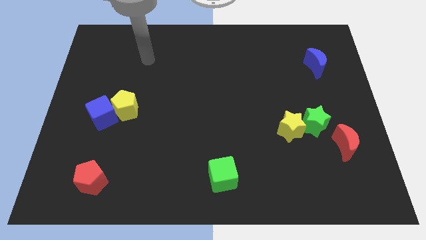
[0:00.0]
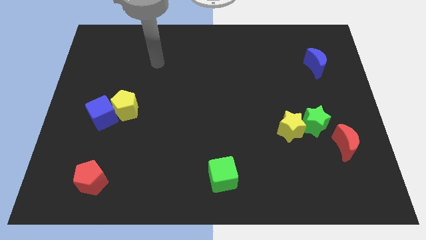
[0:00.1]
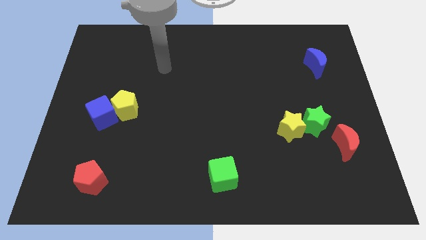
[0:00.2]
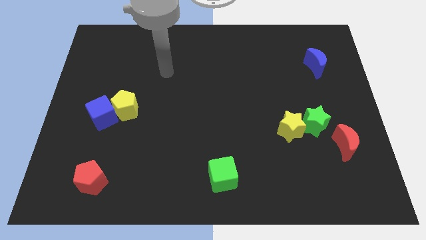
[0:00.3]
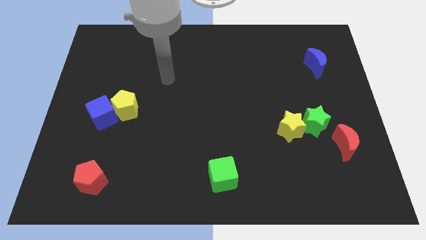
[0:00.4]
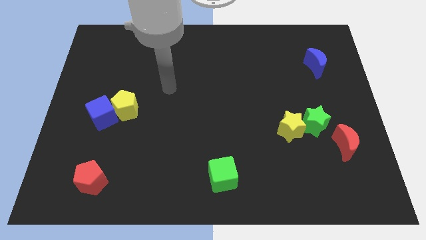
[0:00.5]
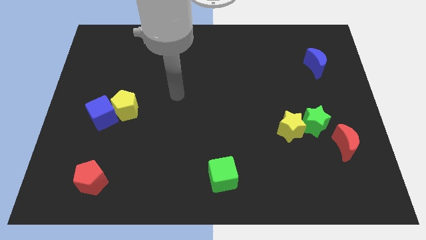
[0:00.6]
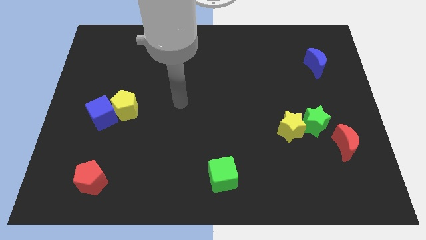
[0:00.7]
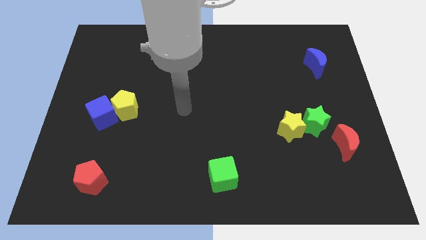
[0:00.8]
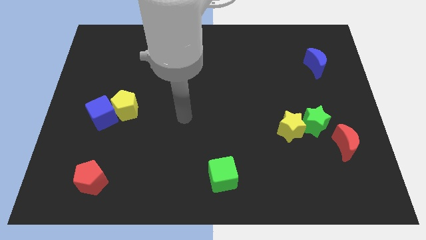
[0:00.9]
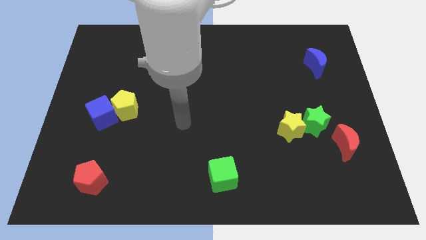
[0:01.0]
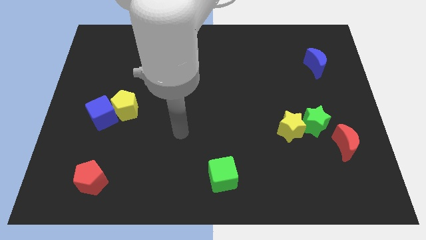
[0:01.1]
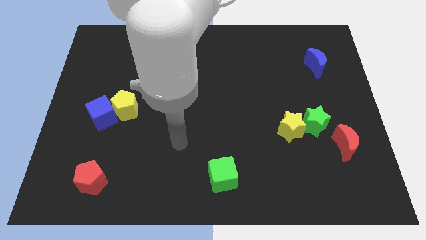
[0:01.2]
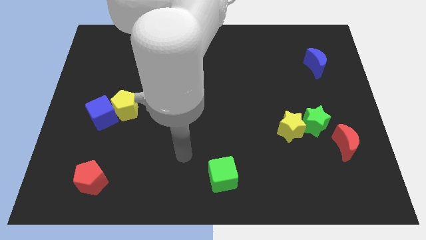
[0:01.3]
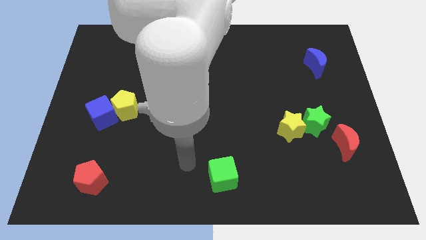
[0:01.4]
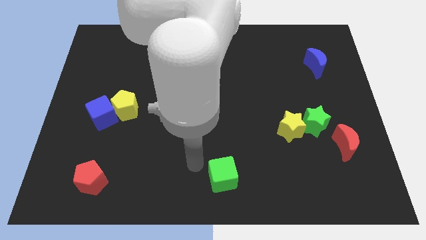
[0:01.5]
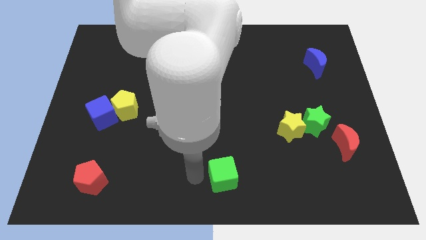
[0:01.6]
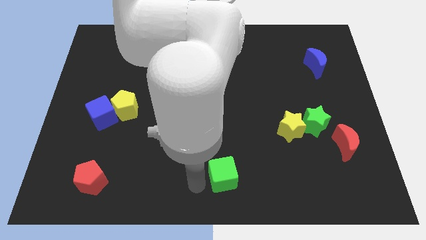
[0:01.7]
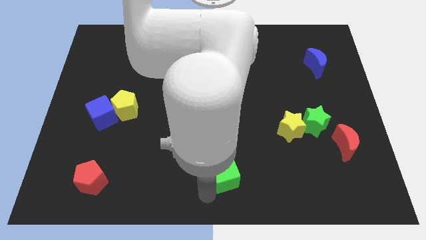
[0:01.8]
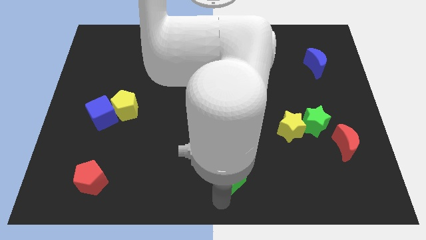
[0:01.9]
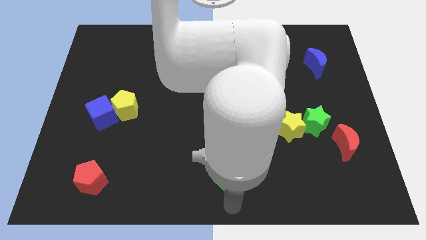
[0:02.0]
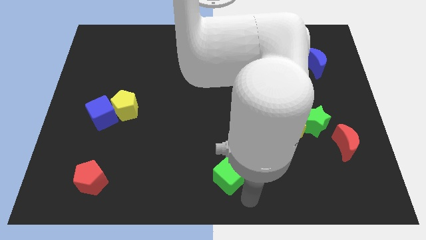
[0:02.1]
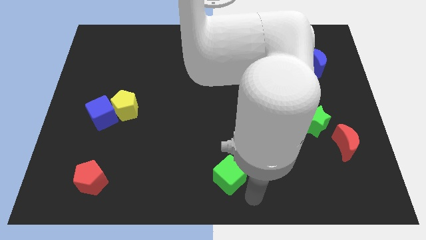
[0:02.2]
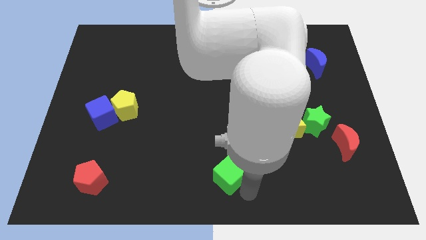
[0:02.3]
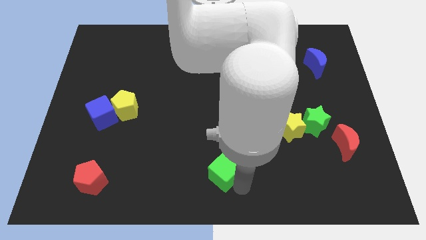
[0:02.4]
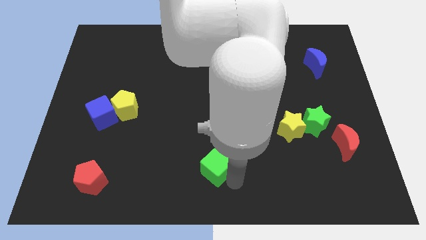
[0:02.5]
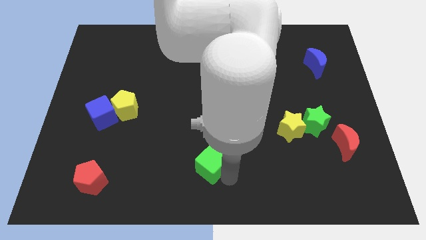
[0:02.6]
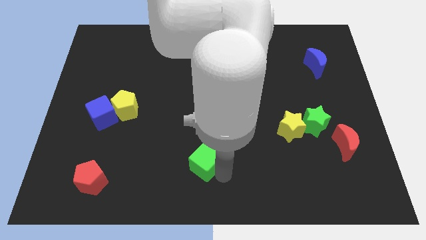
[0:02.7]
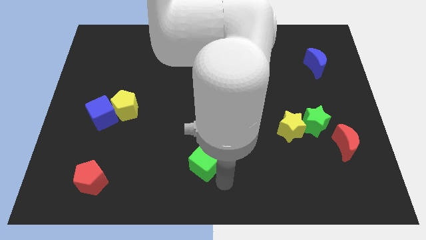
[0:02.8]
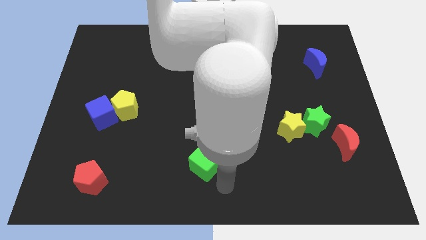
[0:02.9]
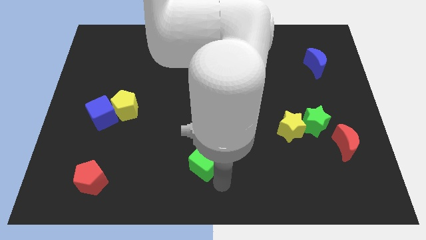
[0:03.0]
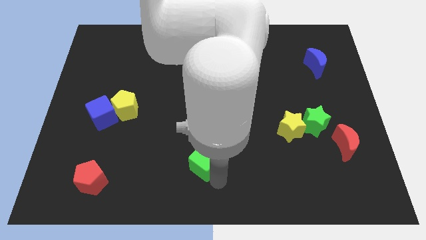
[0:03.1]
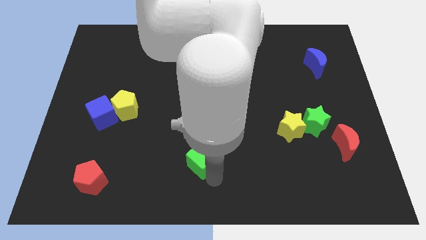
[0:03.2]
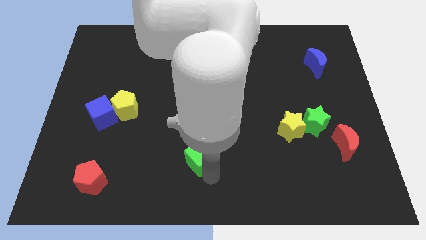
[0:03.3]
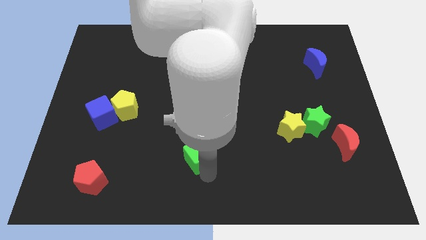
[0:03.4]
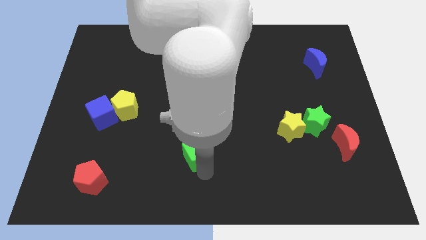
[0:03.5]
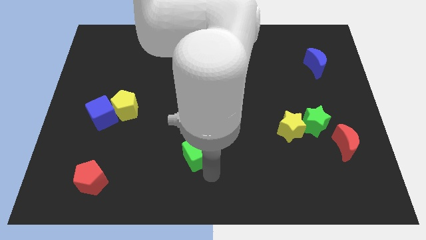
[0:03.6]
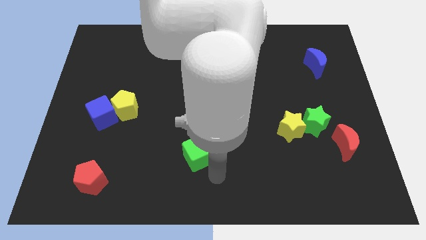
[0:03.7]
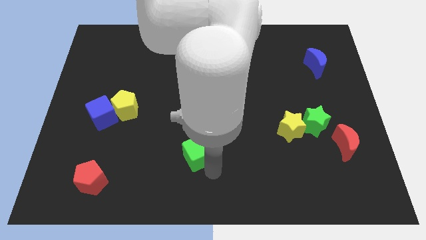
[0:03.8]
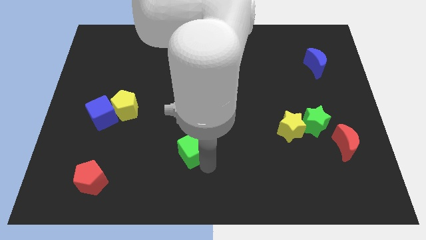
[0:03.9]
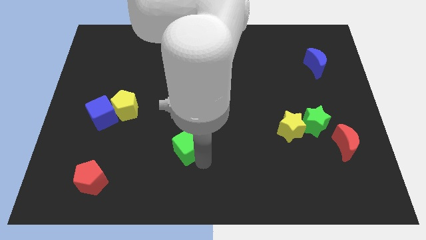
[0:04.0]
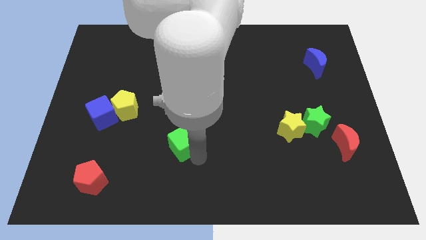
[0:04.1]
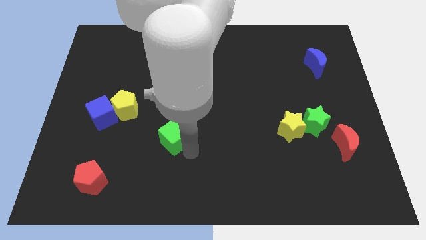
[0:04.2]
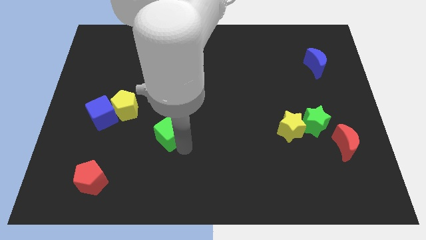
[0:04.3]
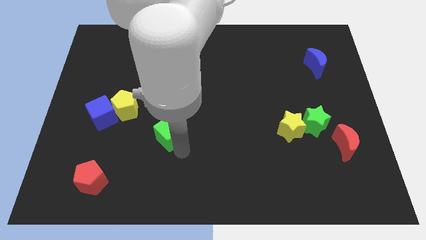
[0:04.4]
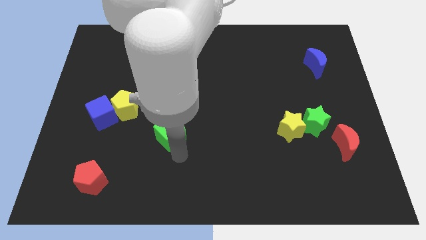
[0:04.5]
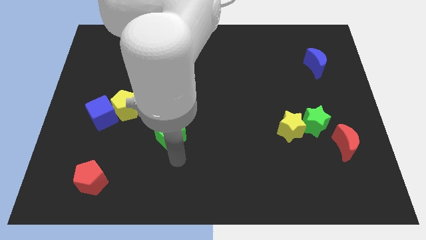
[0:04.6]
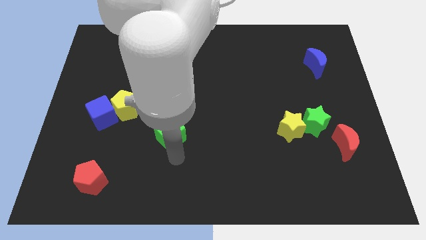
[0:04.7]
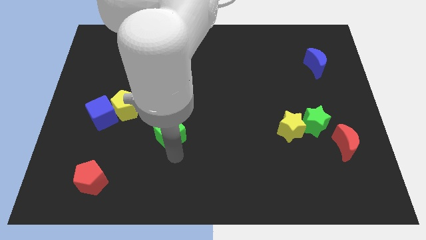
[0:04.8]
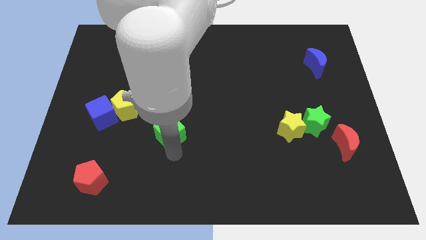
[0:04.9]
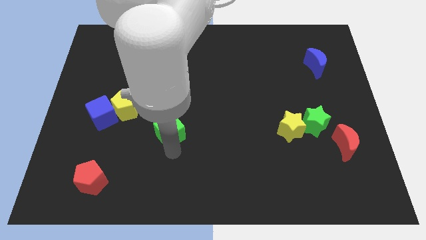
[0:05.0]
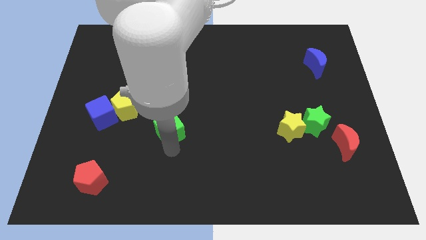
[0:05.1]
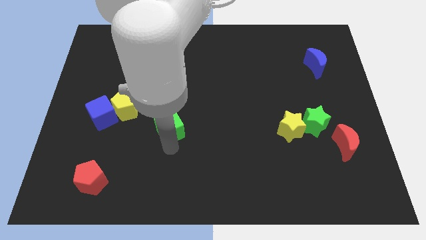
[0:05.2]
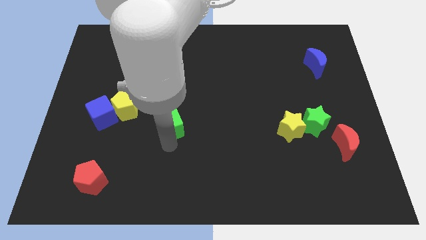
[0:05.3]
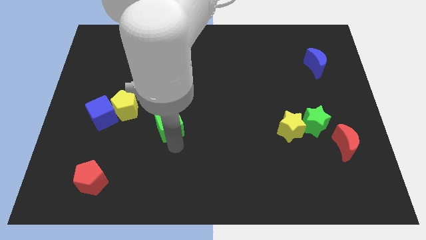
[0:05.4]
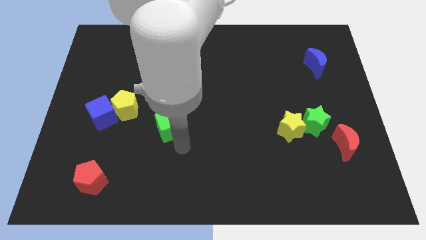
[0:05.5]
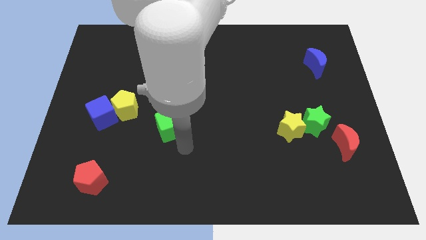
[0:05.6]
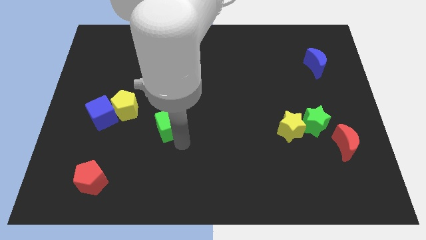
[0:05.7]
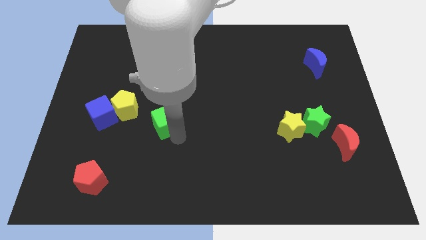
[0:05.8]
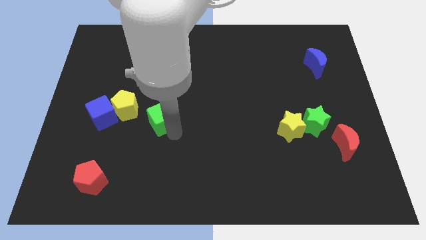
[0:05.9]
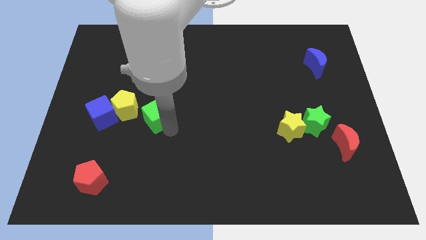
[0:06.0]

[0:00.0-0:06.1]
push the green cube upwards and then left

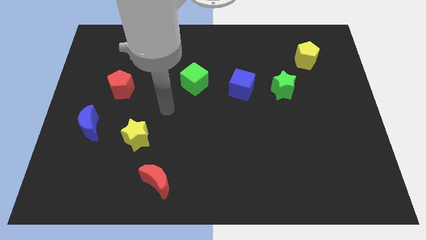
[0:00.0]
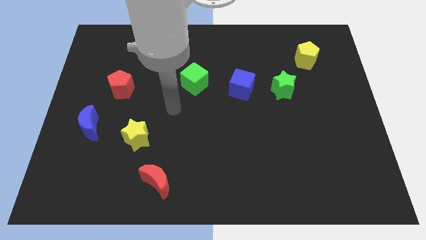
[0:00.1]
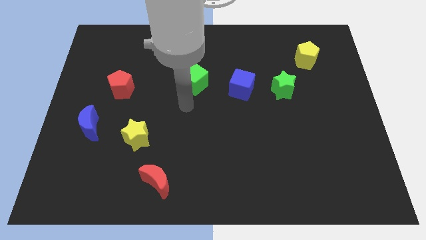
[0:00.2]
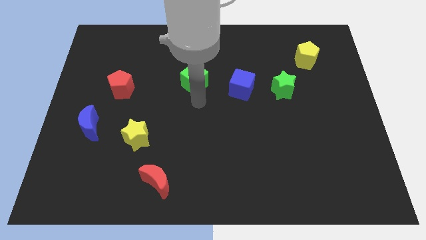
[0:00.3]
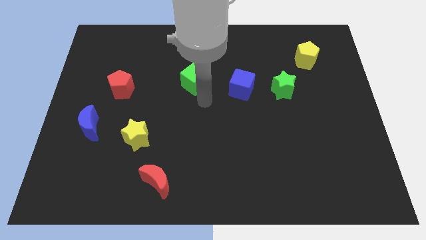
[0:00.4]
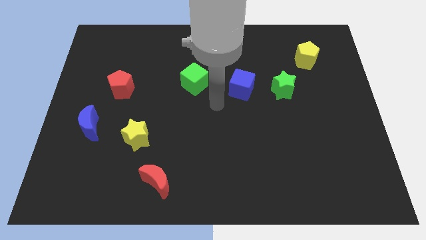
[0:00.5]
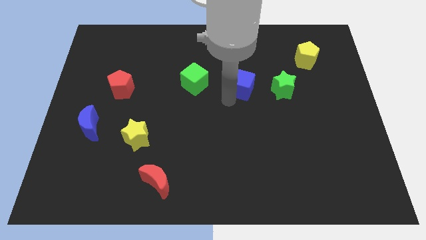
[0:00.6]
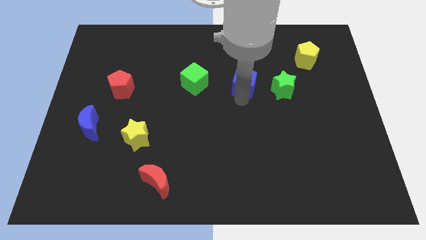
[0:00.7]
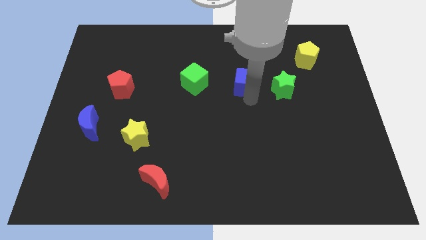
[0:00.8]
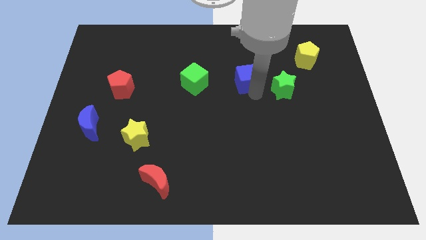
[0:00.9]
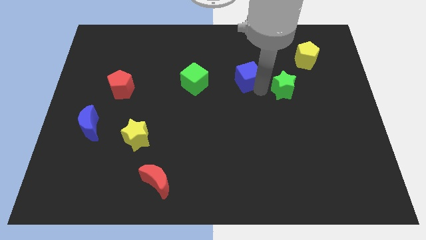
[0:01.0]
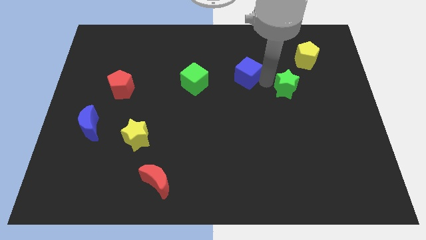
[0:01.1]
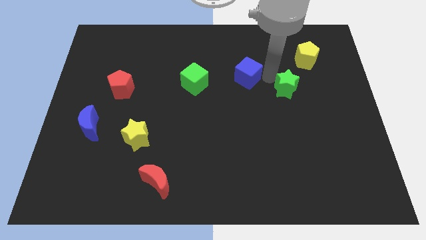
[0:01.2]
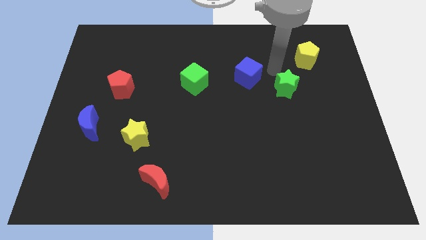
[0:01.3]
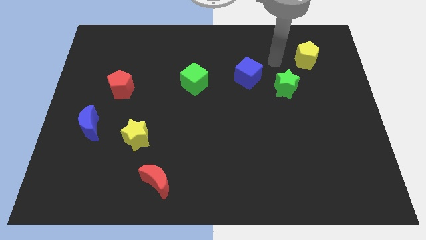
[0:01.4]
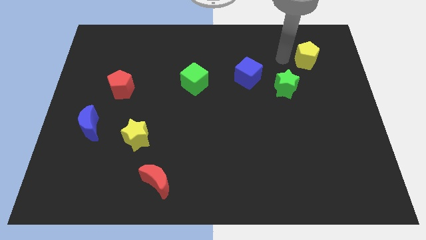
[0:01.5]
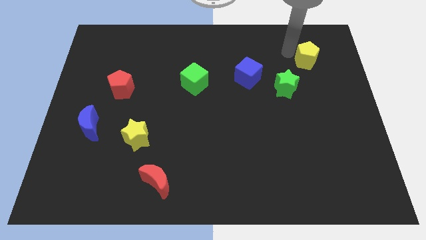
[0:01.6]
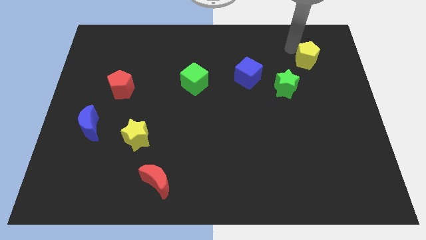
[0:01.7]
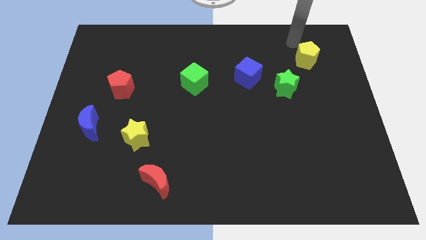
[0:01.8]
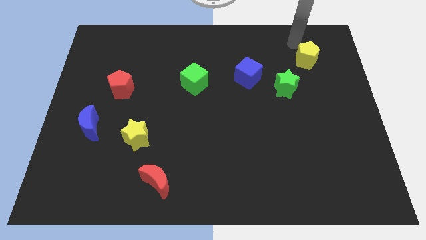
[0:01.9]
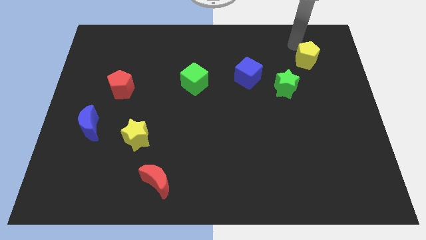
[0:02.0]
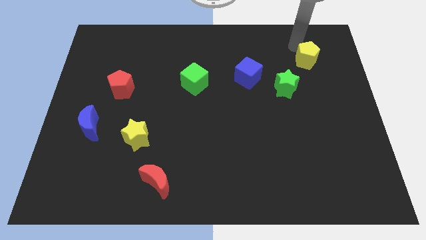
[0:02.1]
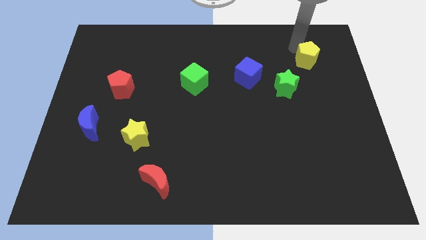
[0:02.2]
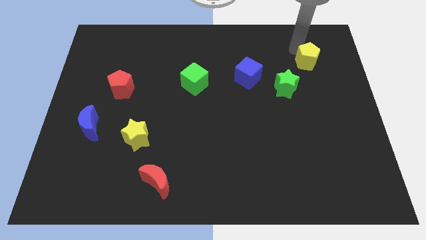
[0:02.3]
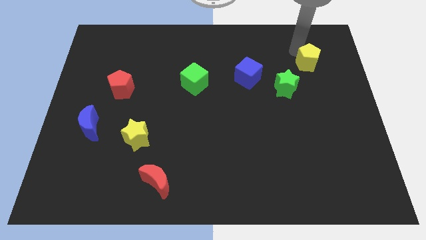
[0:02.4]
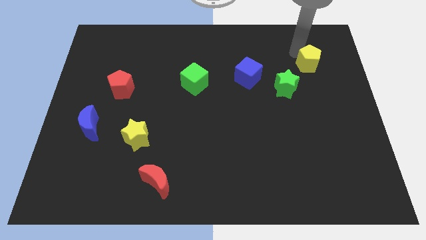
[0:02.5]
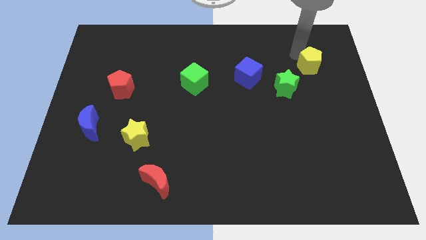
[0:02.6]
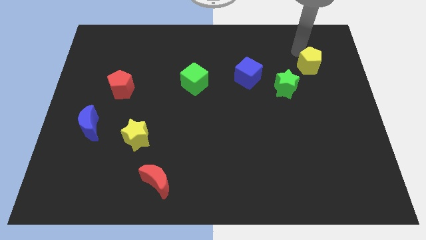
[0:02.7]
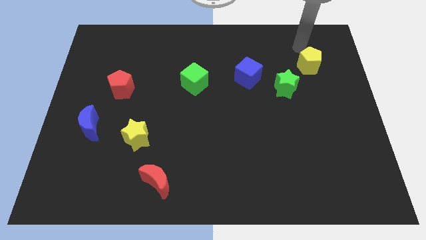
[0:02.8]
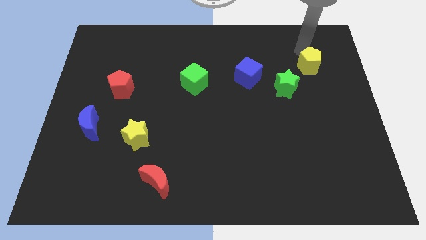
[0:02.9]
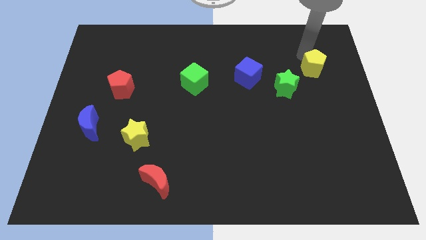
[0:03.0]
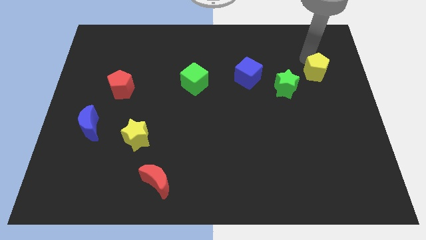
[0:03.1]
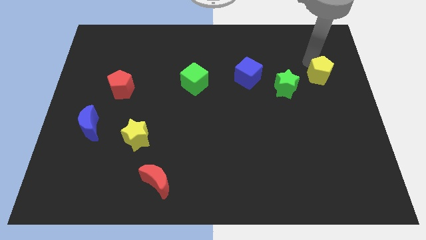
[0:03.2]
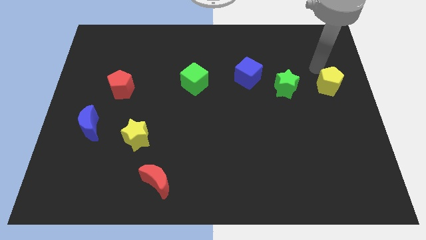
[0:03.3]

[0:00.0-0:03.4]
move the yellow pentagon slightly downwards
